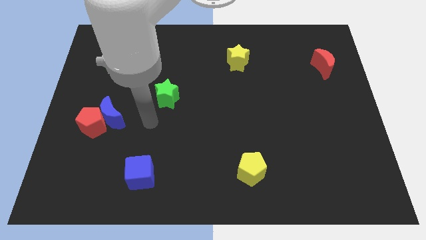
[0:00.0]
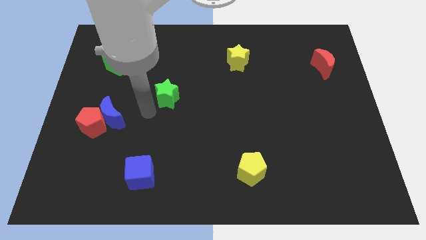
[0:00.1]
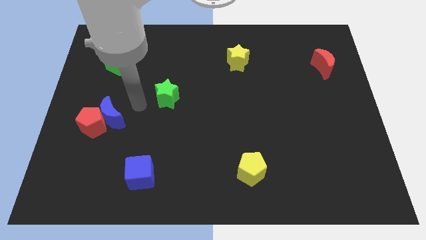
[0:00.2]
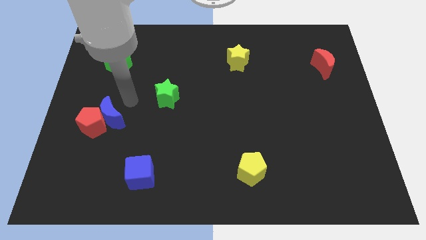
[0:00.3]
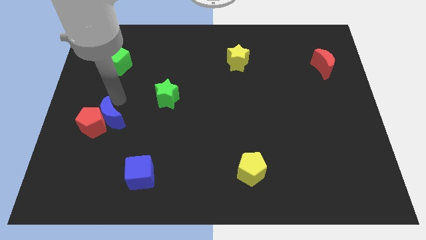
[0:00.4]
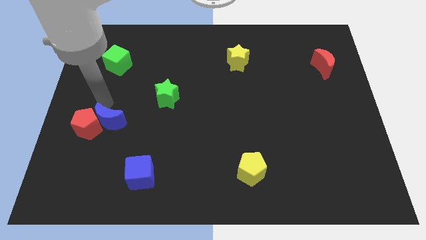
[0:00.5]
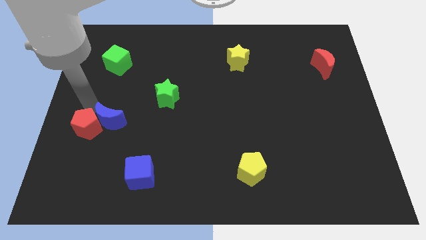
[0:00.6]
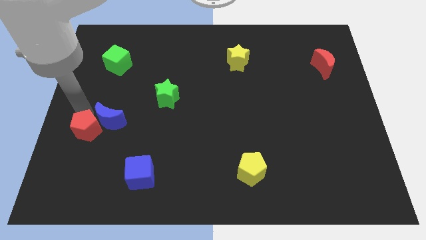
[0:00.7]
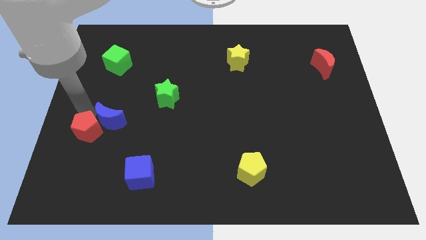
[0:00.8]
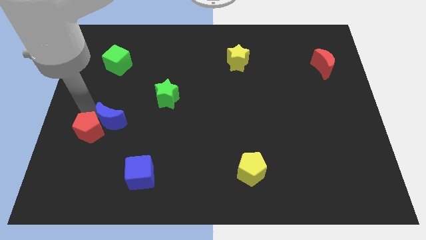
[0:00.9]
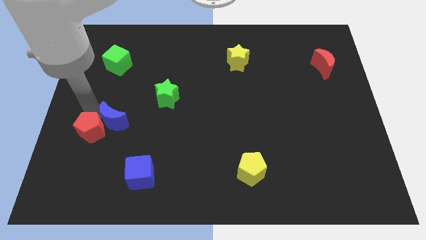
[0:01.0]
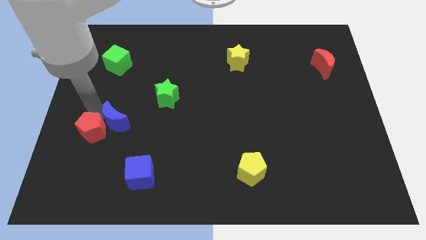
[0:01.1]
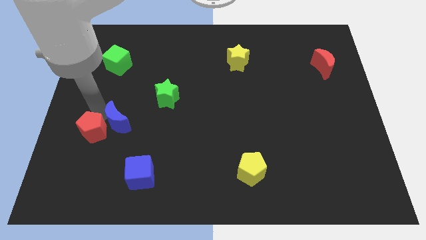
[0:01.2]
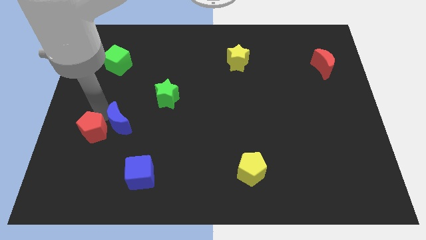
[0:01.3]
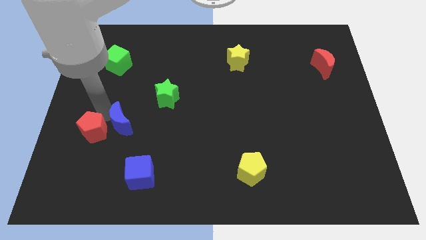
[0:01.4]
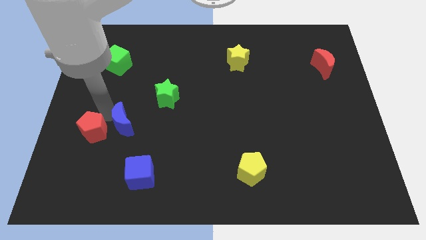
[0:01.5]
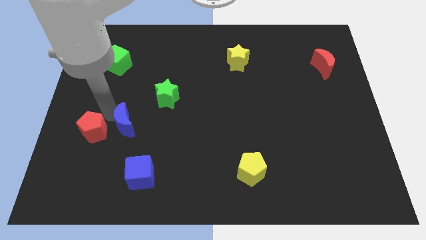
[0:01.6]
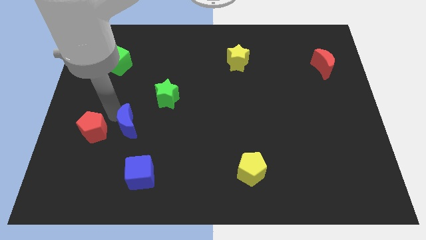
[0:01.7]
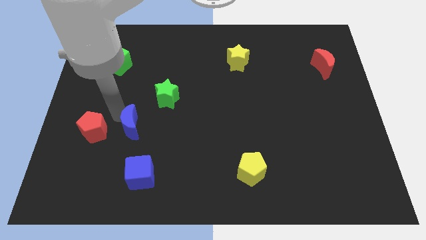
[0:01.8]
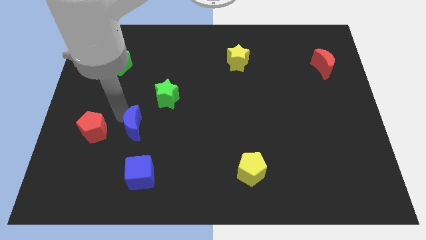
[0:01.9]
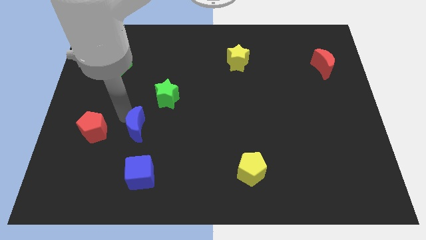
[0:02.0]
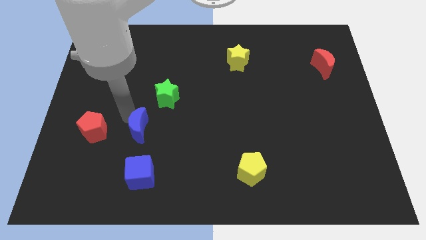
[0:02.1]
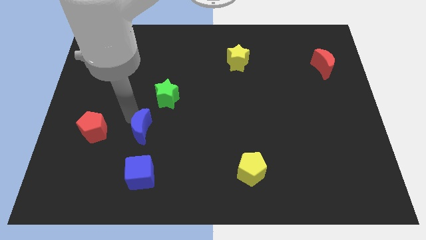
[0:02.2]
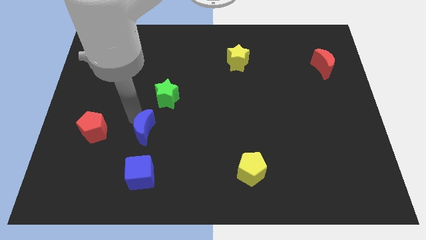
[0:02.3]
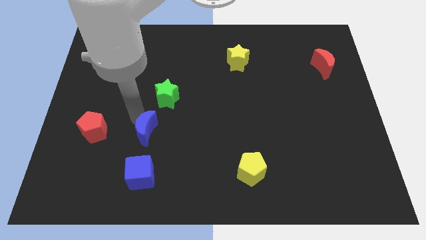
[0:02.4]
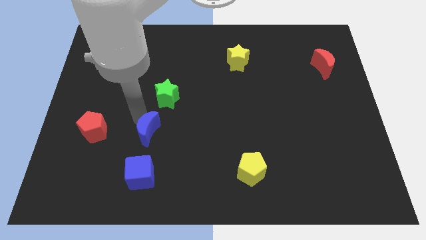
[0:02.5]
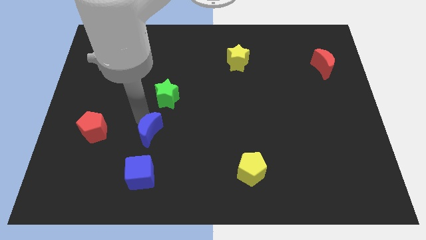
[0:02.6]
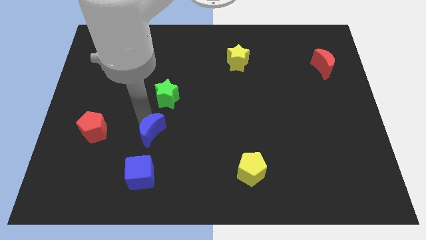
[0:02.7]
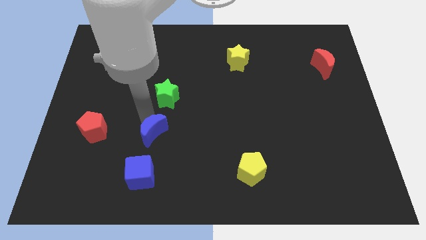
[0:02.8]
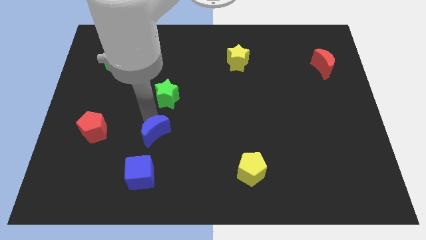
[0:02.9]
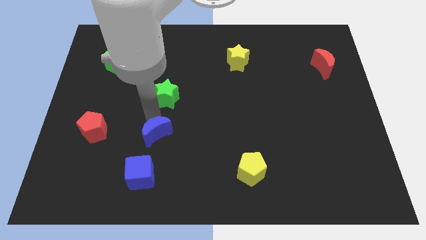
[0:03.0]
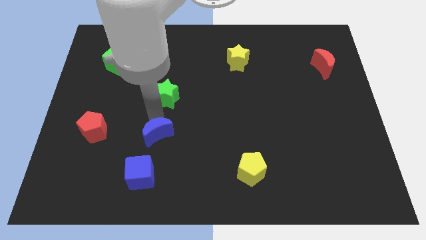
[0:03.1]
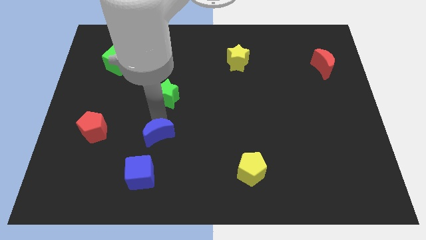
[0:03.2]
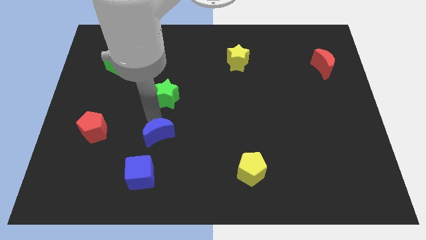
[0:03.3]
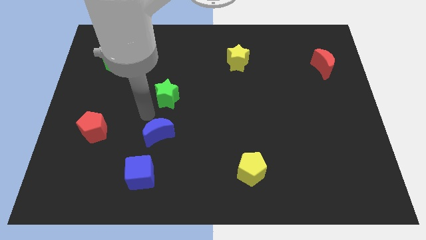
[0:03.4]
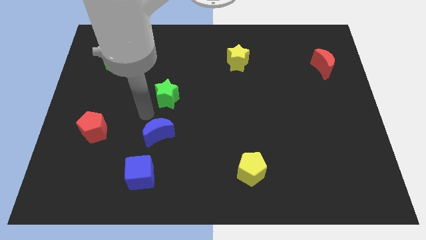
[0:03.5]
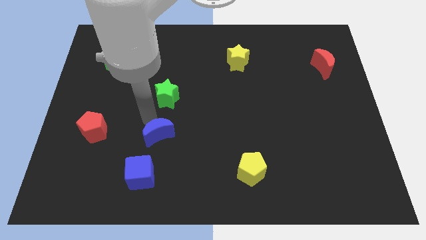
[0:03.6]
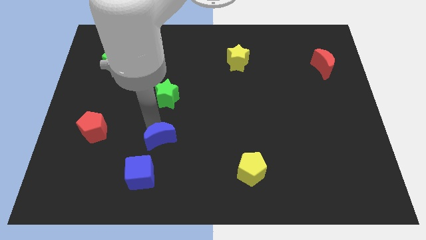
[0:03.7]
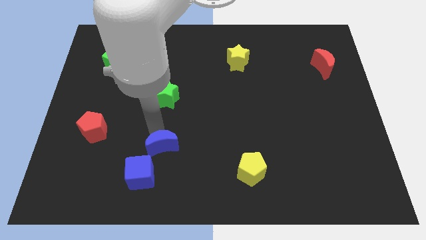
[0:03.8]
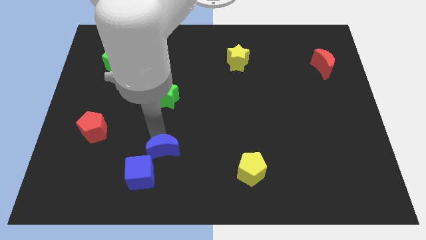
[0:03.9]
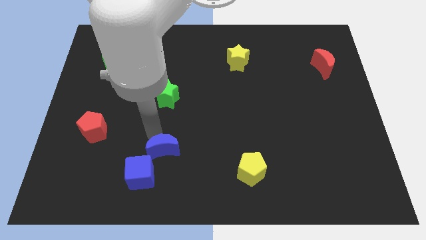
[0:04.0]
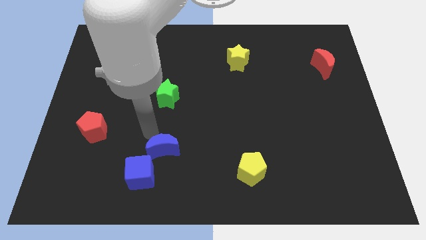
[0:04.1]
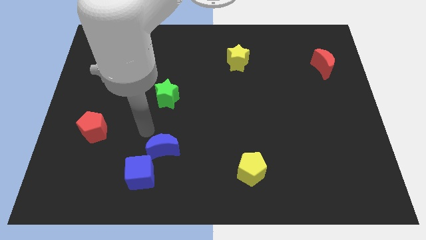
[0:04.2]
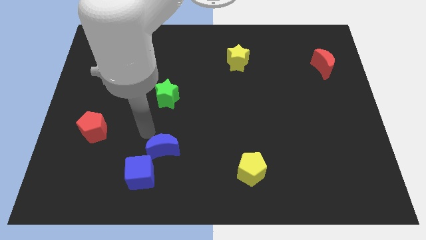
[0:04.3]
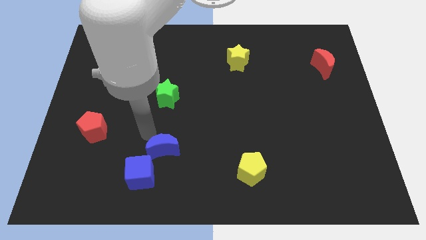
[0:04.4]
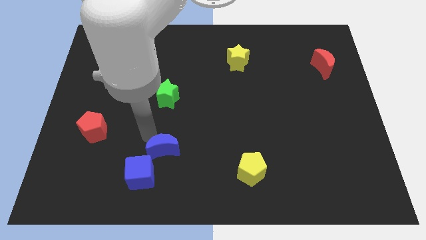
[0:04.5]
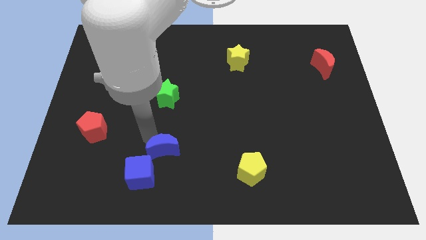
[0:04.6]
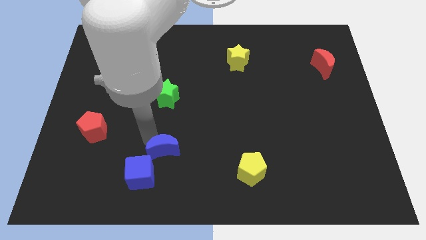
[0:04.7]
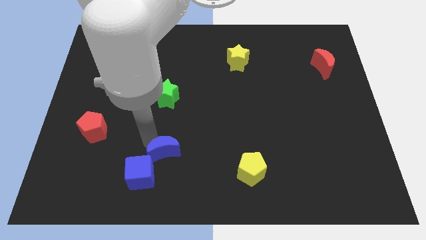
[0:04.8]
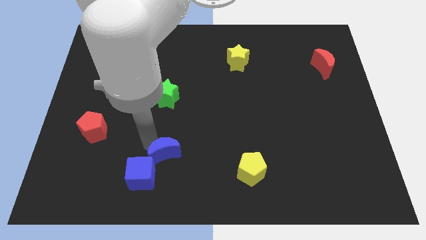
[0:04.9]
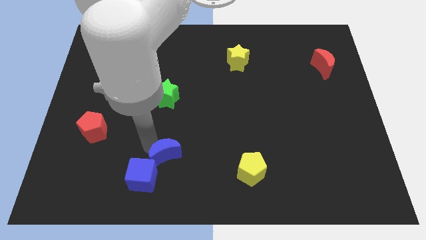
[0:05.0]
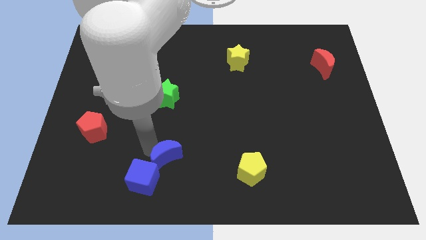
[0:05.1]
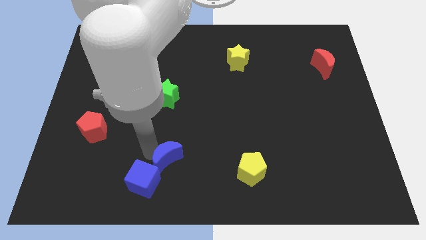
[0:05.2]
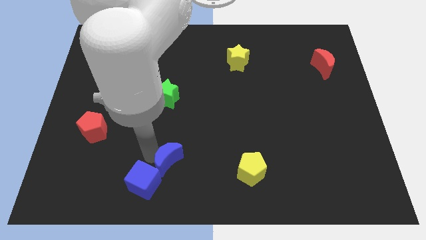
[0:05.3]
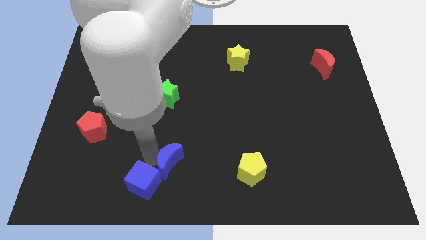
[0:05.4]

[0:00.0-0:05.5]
put the blue moon to the right of the blue cube

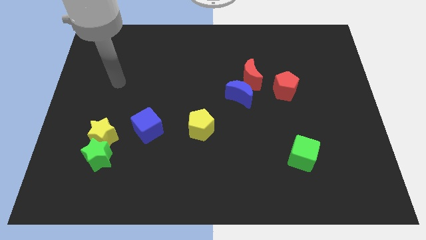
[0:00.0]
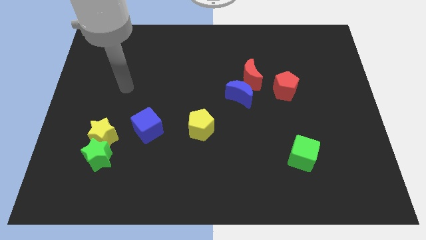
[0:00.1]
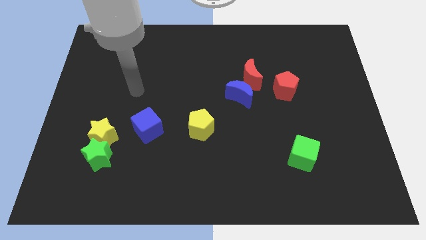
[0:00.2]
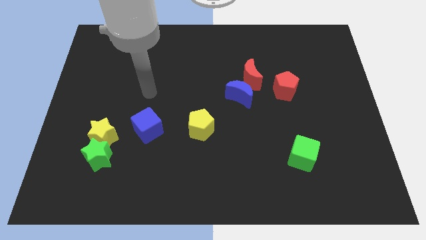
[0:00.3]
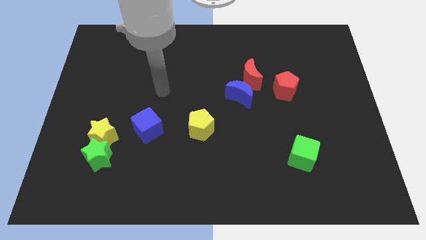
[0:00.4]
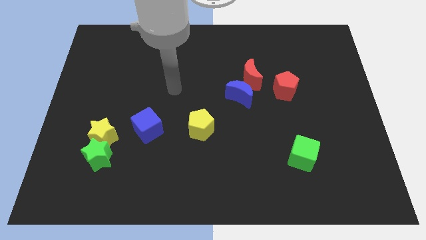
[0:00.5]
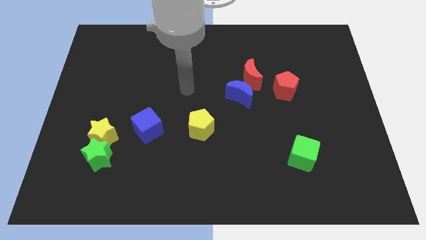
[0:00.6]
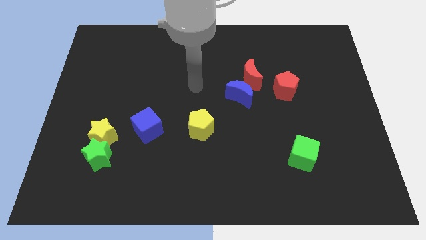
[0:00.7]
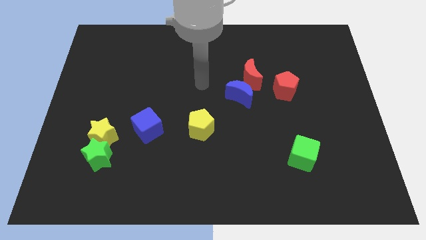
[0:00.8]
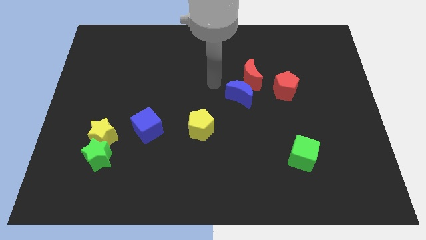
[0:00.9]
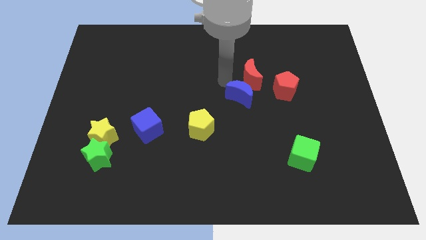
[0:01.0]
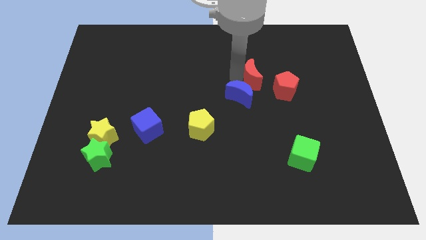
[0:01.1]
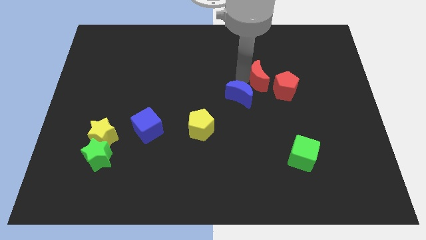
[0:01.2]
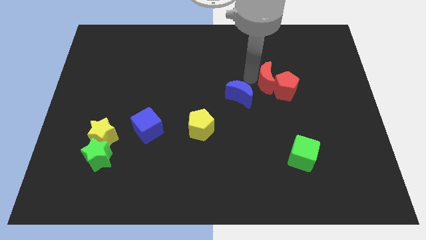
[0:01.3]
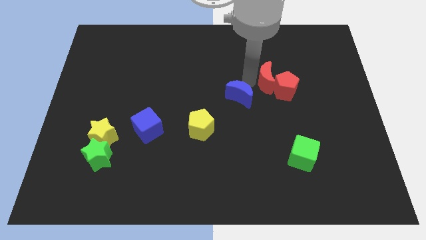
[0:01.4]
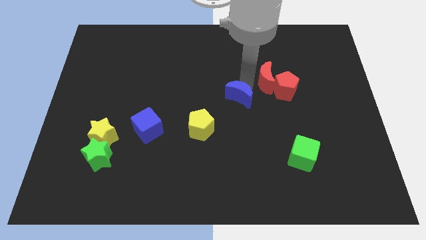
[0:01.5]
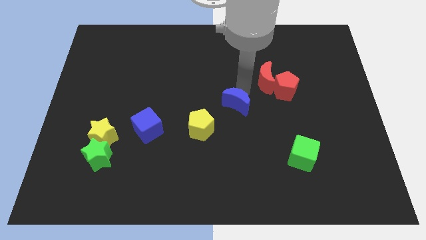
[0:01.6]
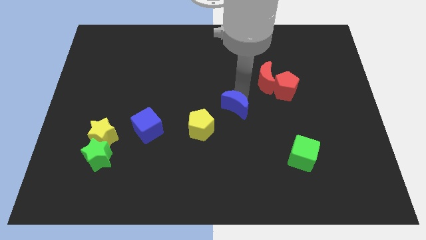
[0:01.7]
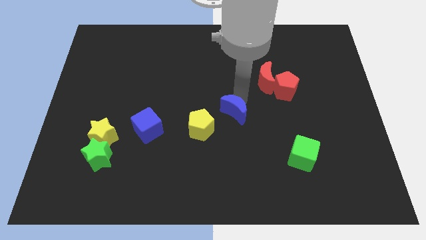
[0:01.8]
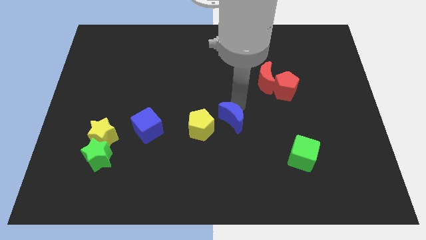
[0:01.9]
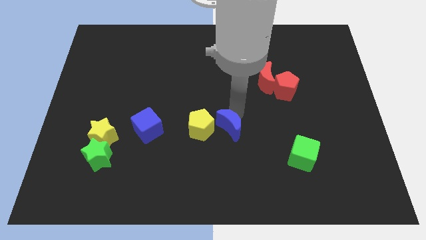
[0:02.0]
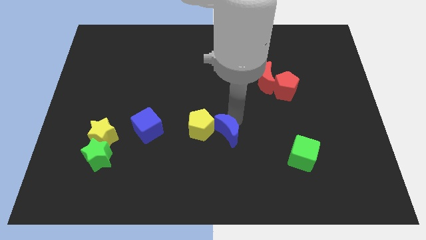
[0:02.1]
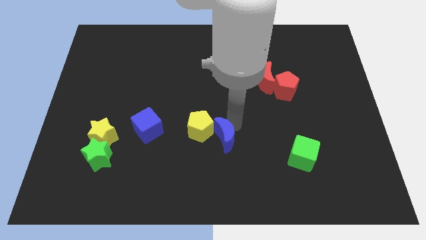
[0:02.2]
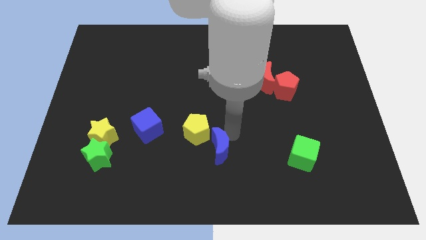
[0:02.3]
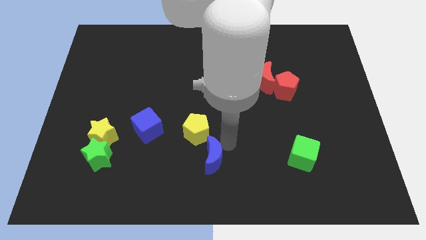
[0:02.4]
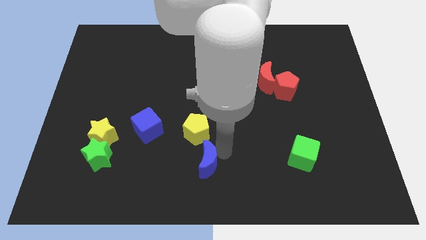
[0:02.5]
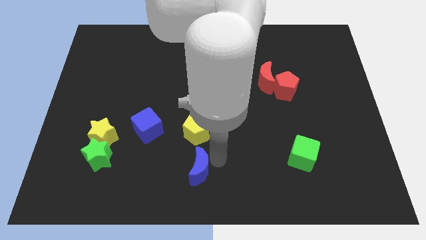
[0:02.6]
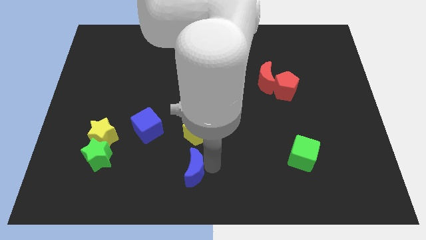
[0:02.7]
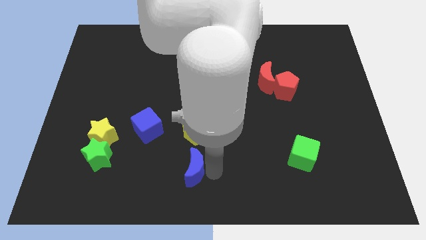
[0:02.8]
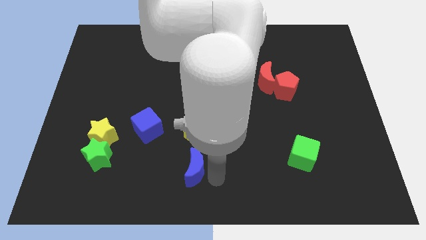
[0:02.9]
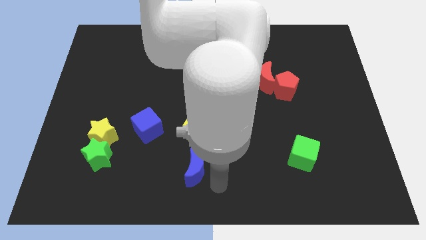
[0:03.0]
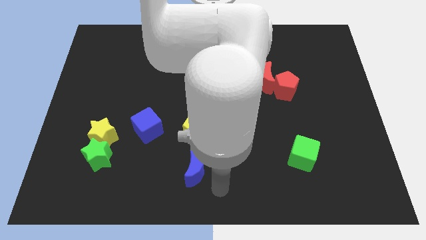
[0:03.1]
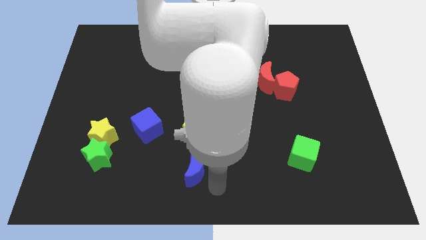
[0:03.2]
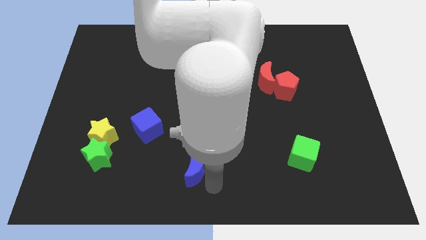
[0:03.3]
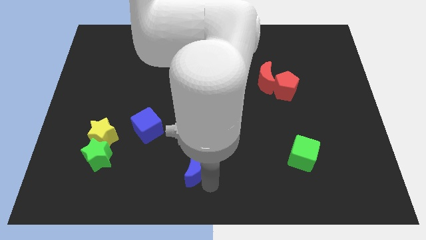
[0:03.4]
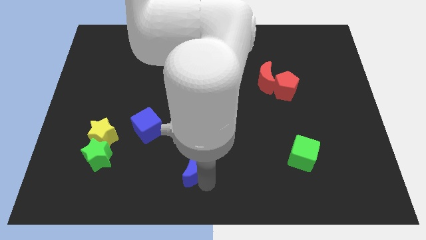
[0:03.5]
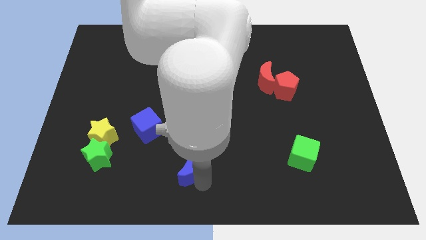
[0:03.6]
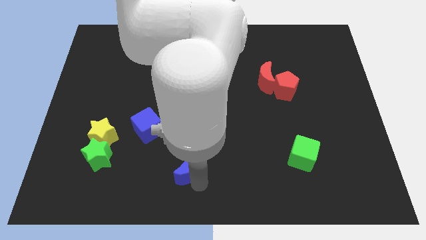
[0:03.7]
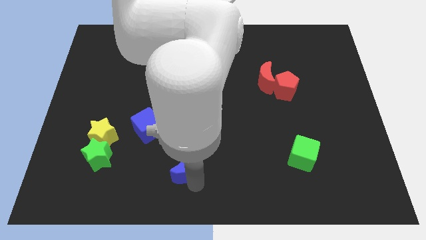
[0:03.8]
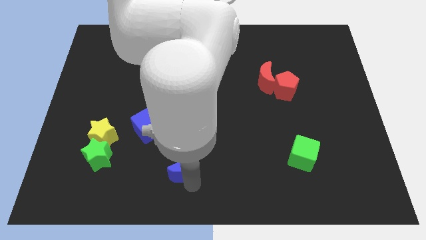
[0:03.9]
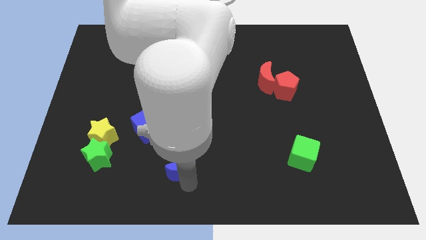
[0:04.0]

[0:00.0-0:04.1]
slide the blue moon diagonally down and to the left of the yellow pentagon
